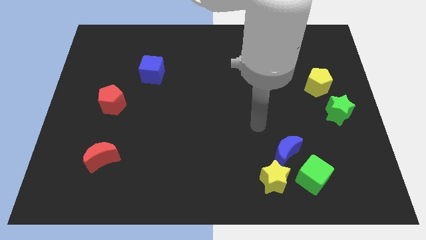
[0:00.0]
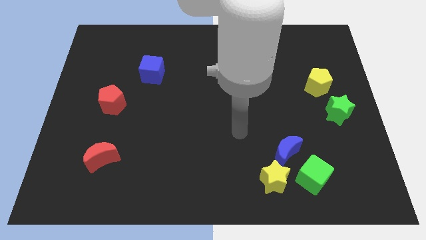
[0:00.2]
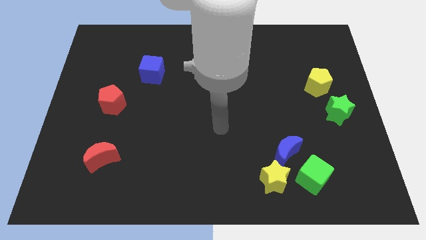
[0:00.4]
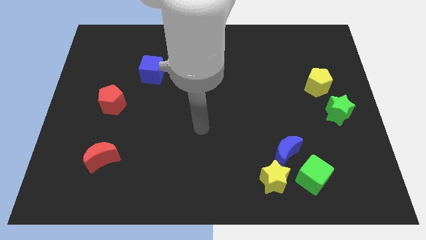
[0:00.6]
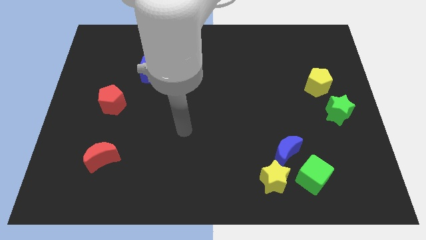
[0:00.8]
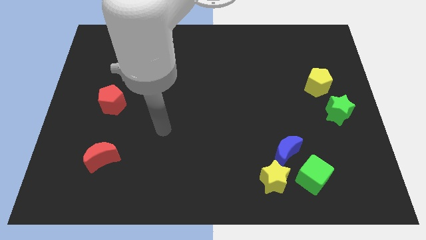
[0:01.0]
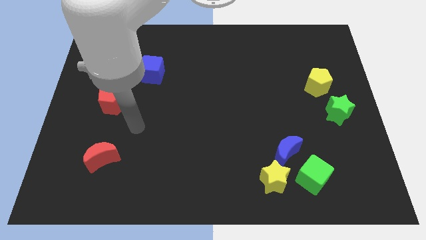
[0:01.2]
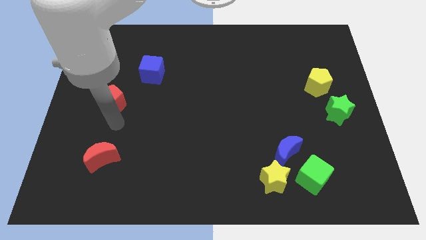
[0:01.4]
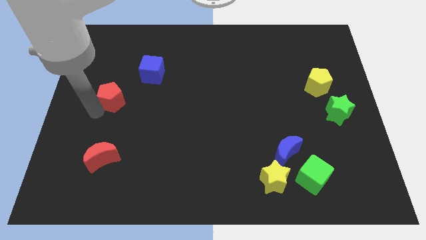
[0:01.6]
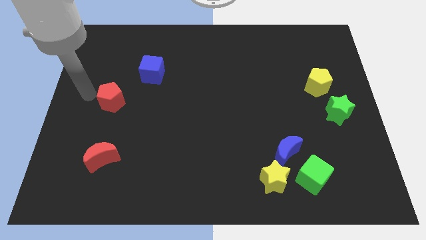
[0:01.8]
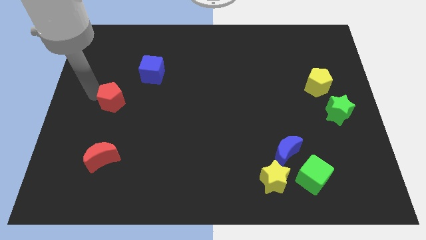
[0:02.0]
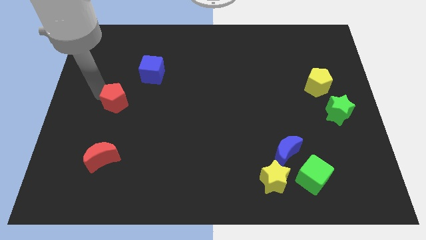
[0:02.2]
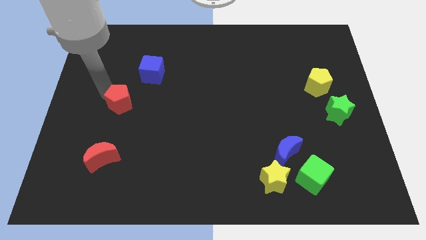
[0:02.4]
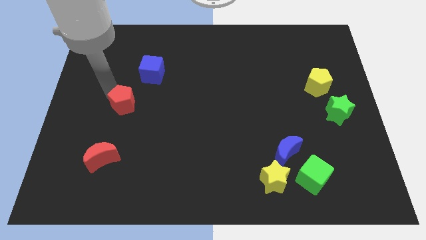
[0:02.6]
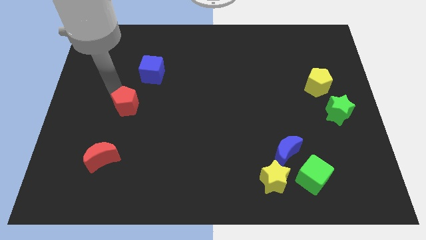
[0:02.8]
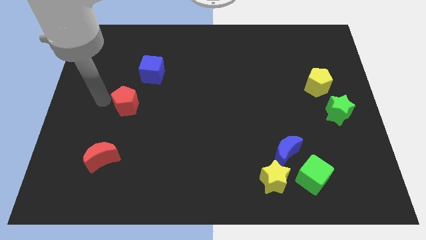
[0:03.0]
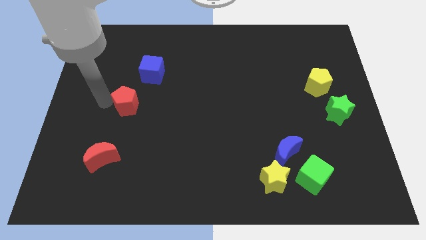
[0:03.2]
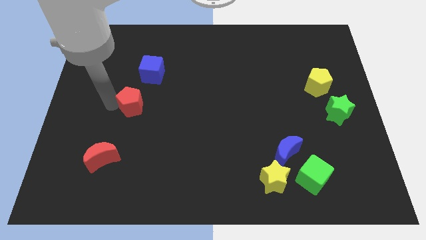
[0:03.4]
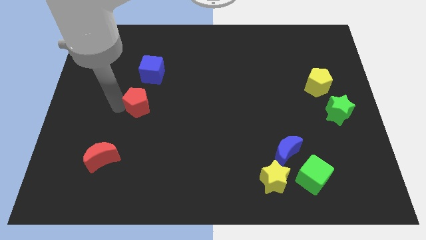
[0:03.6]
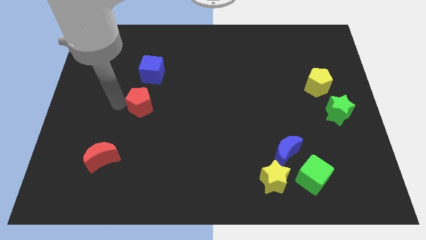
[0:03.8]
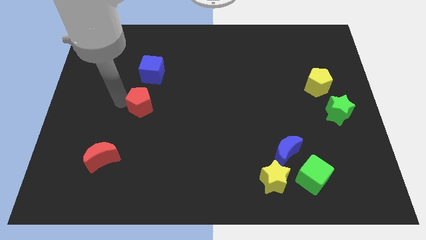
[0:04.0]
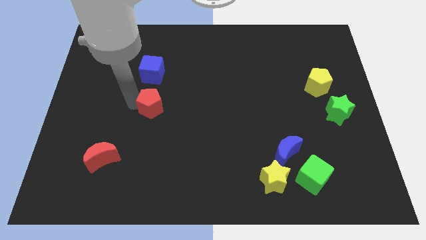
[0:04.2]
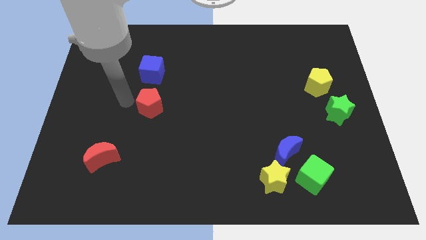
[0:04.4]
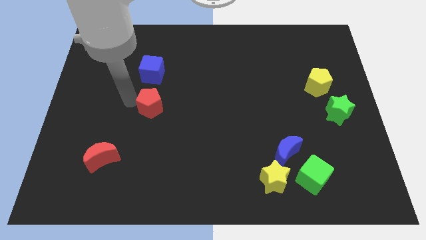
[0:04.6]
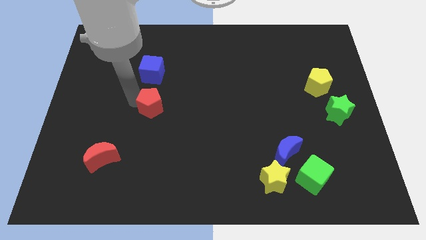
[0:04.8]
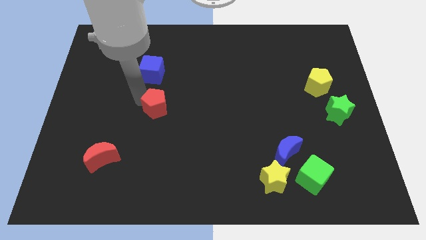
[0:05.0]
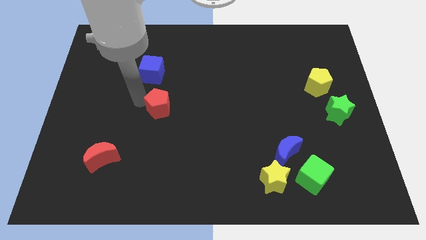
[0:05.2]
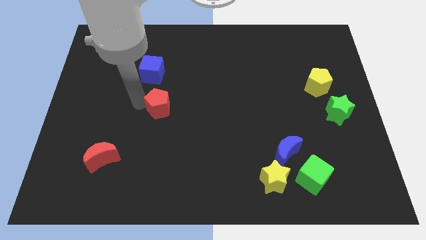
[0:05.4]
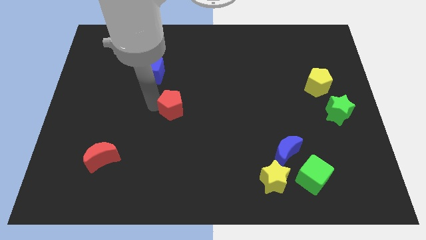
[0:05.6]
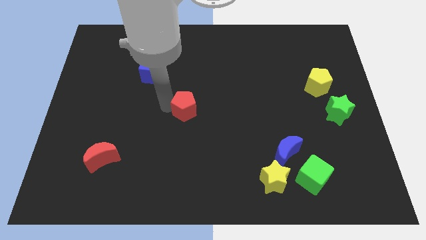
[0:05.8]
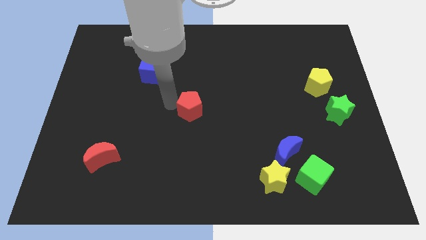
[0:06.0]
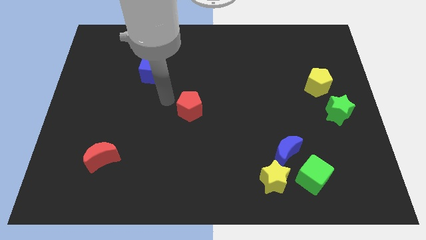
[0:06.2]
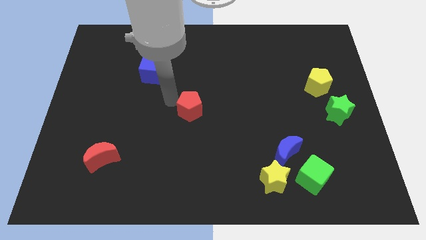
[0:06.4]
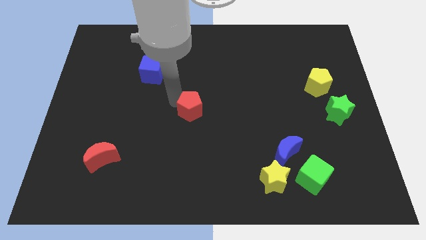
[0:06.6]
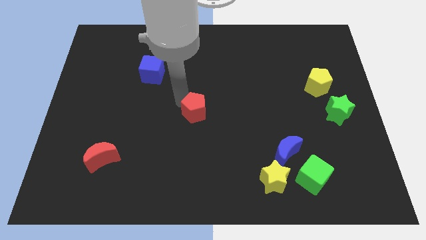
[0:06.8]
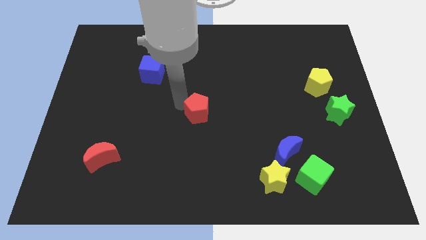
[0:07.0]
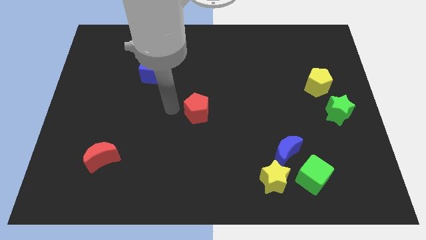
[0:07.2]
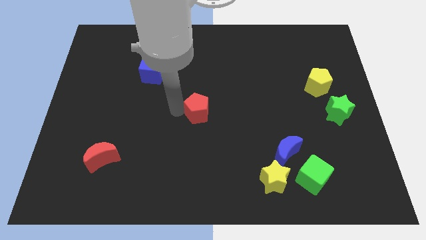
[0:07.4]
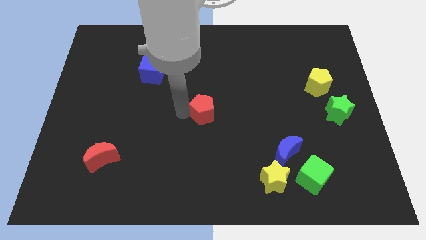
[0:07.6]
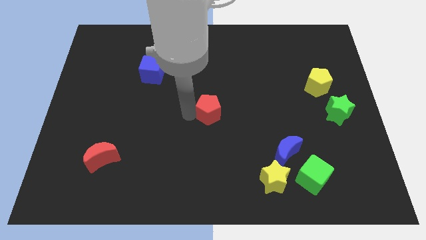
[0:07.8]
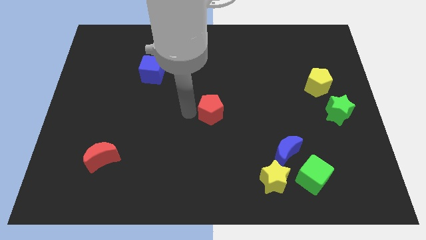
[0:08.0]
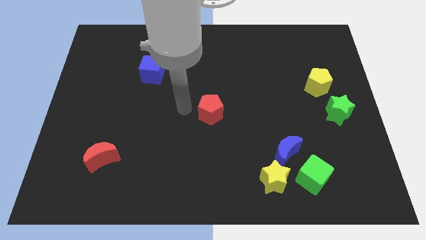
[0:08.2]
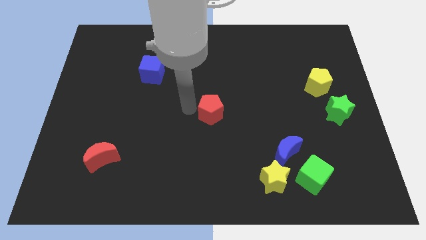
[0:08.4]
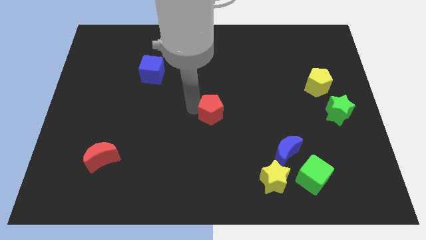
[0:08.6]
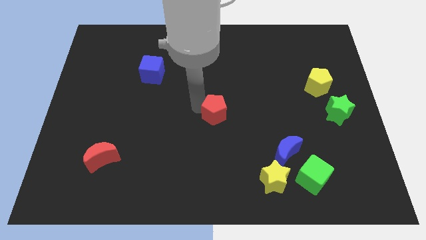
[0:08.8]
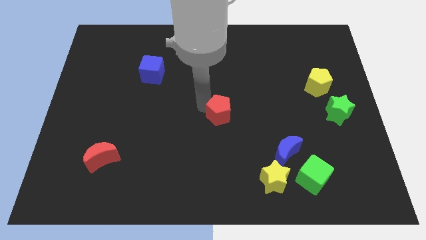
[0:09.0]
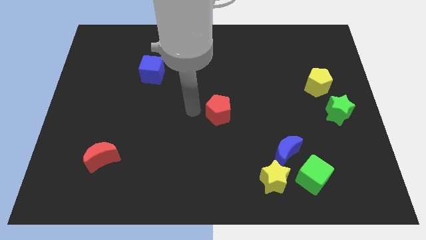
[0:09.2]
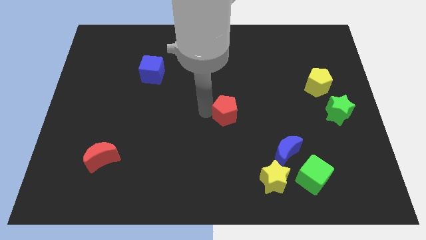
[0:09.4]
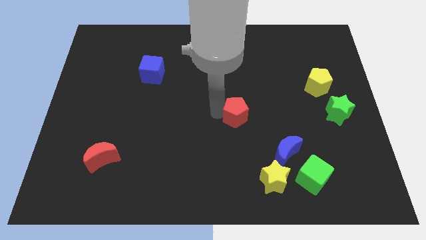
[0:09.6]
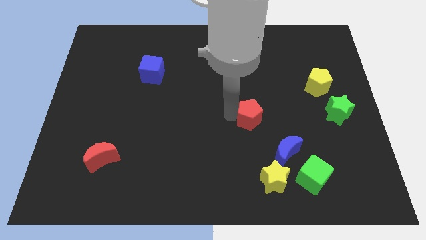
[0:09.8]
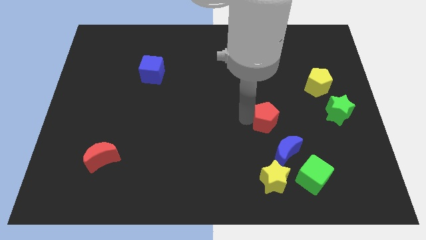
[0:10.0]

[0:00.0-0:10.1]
move the red pentagon to the top of the blue moon

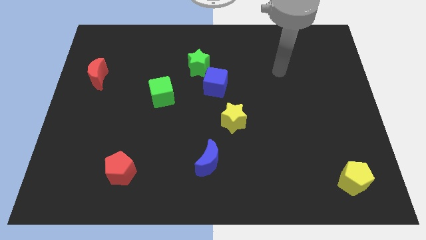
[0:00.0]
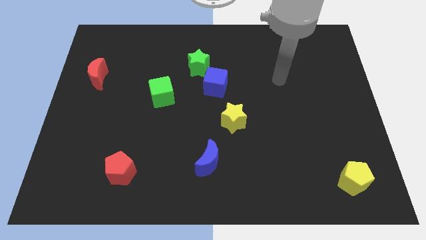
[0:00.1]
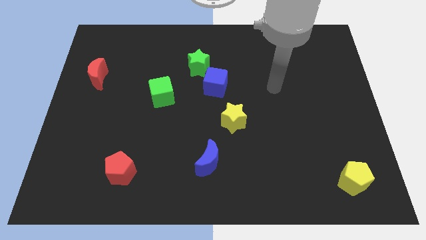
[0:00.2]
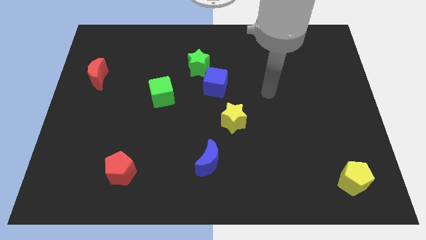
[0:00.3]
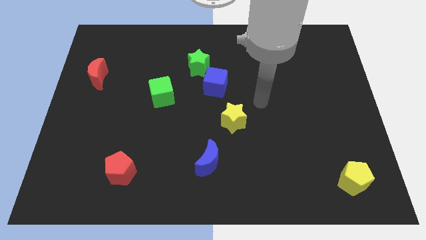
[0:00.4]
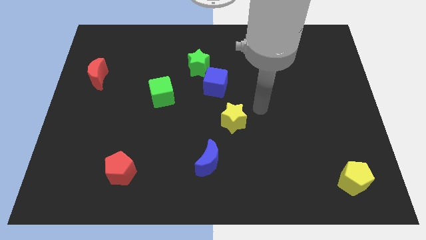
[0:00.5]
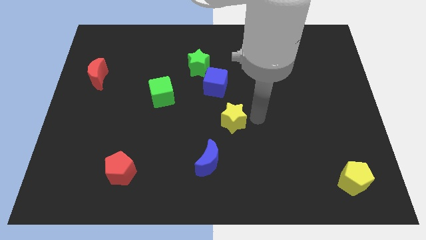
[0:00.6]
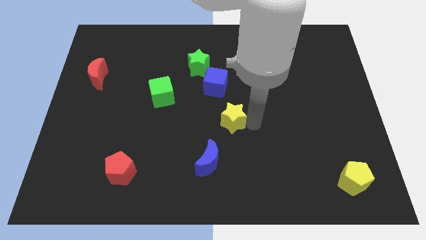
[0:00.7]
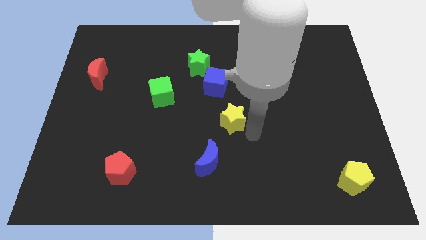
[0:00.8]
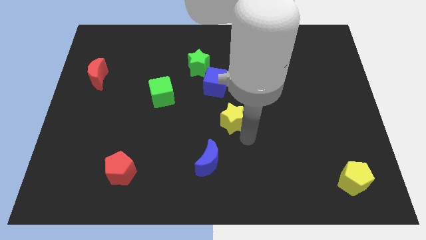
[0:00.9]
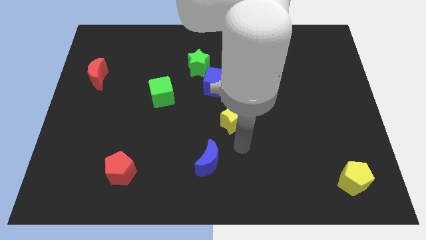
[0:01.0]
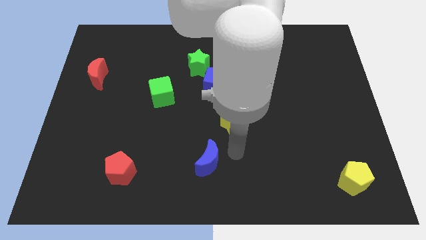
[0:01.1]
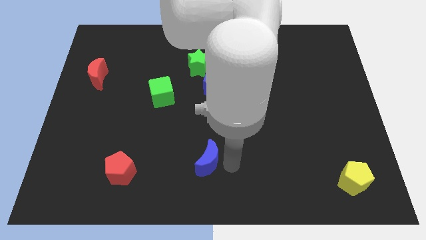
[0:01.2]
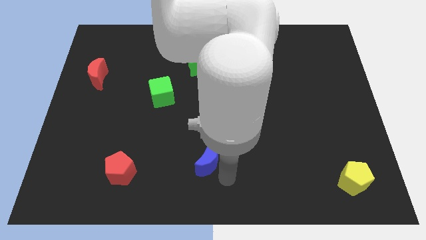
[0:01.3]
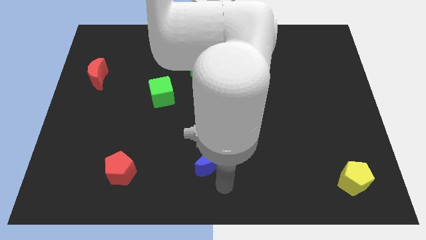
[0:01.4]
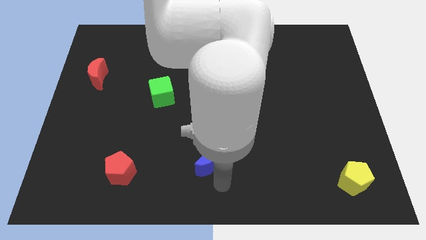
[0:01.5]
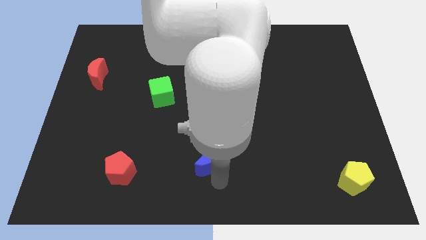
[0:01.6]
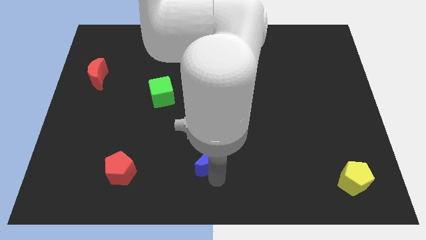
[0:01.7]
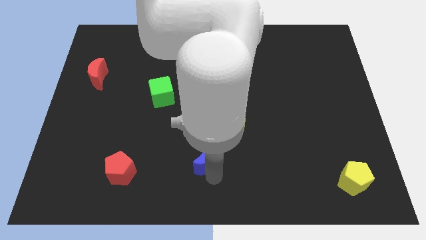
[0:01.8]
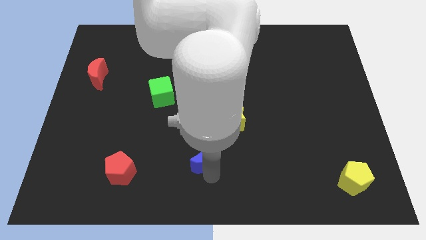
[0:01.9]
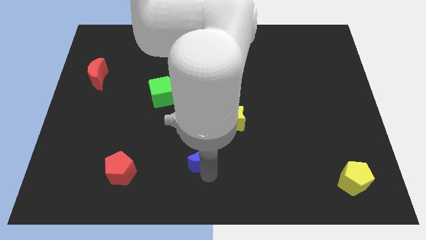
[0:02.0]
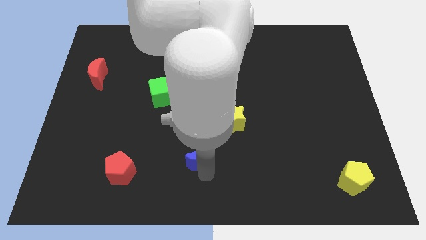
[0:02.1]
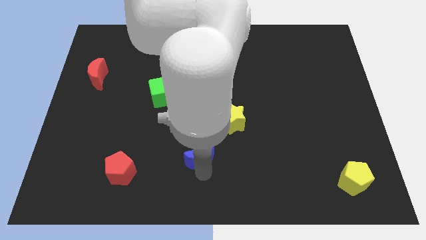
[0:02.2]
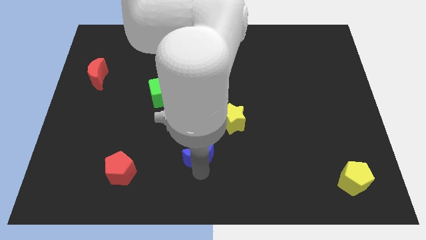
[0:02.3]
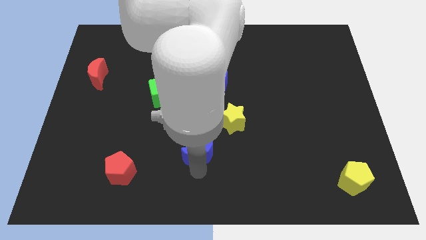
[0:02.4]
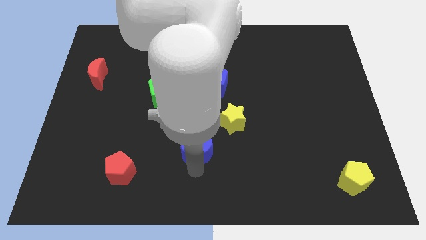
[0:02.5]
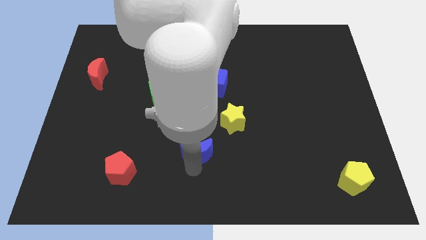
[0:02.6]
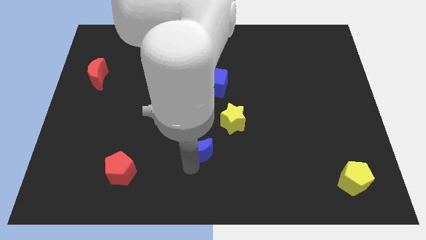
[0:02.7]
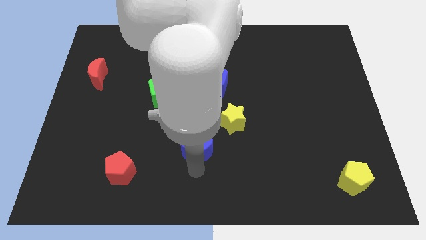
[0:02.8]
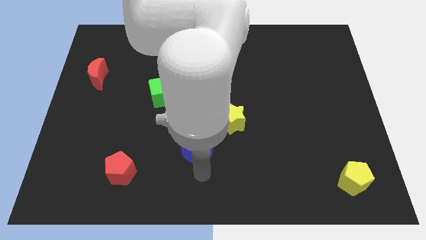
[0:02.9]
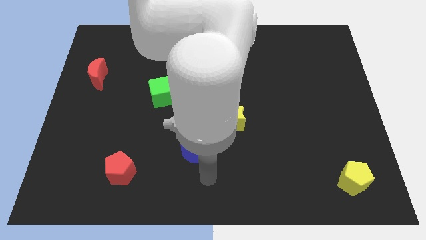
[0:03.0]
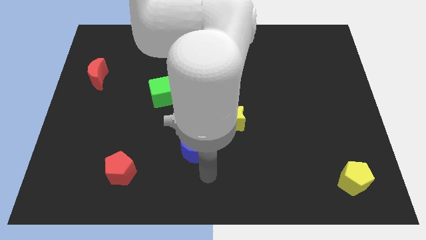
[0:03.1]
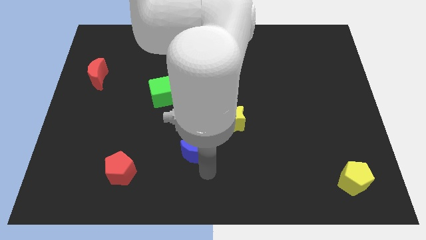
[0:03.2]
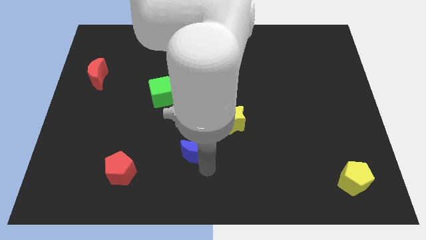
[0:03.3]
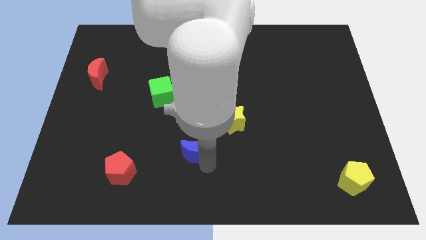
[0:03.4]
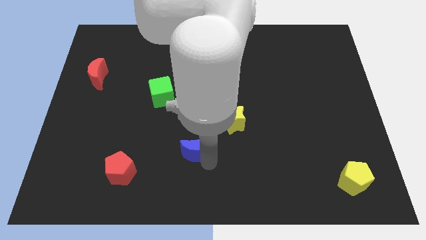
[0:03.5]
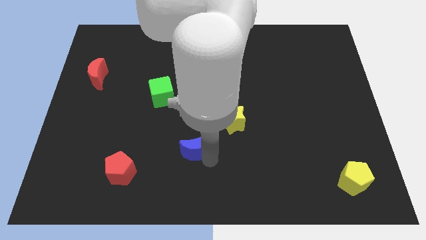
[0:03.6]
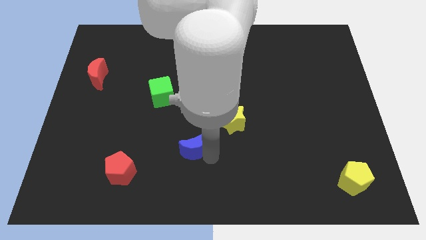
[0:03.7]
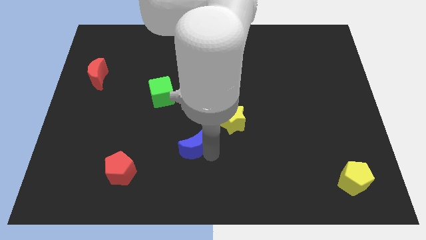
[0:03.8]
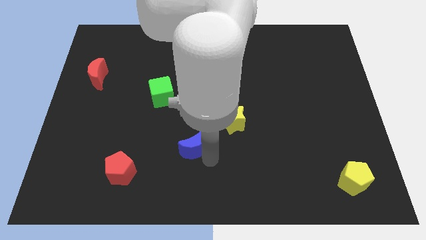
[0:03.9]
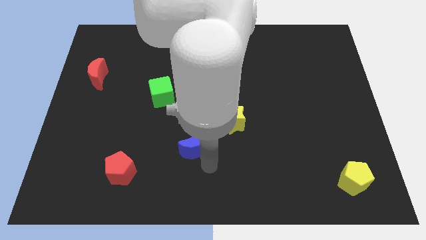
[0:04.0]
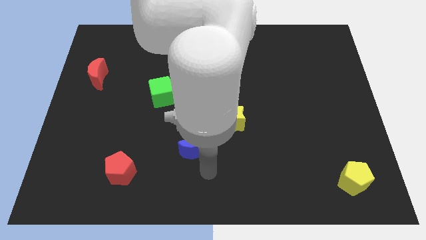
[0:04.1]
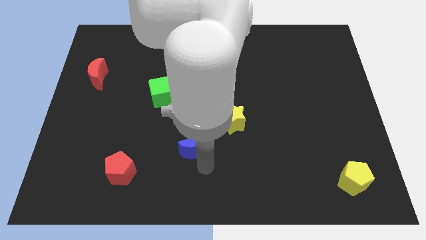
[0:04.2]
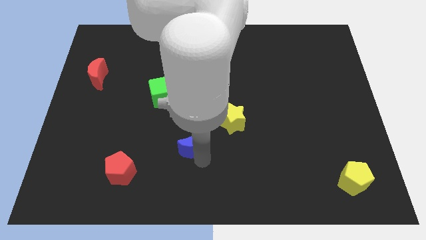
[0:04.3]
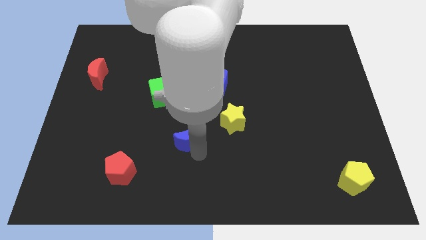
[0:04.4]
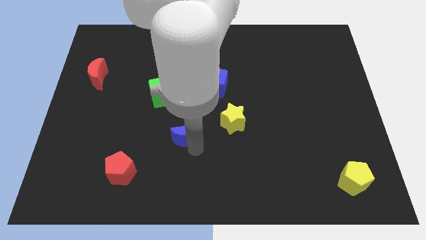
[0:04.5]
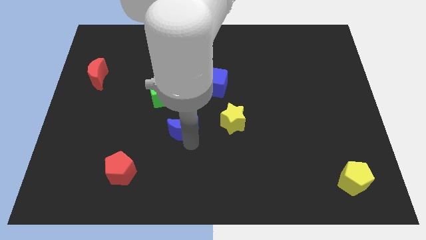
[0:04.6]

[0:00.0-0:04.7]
slide the blue moon diagonally down and to the right of the green cube
